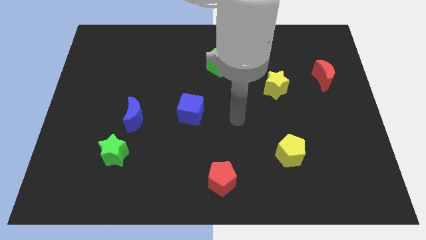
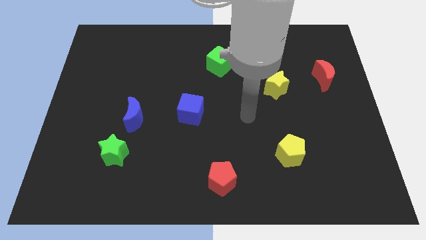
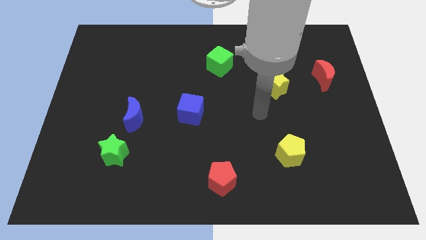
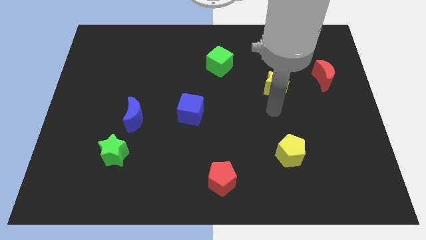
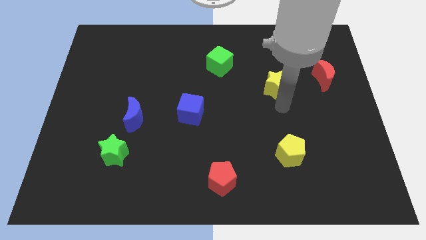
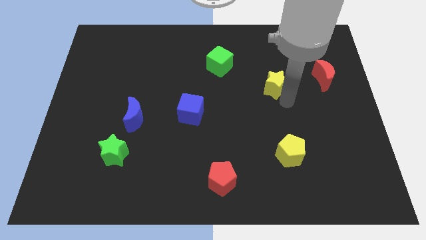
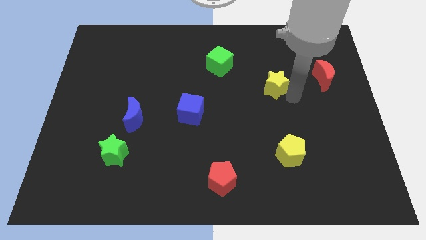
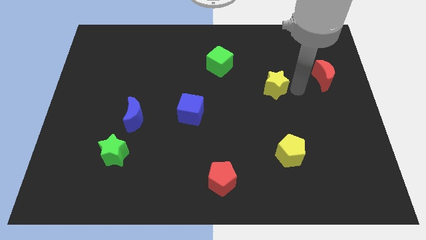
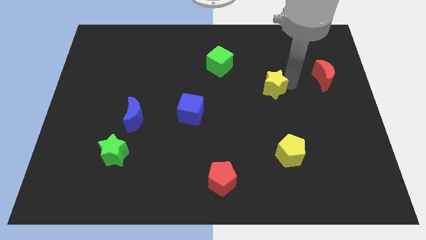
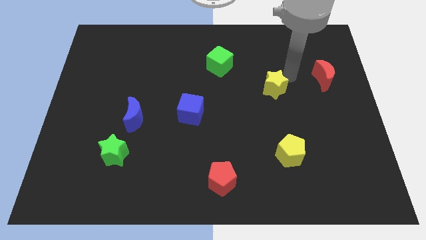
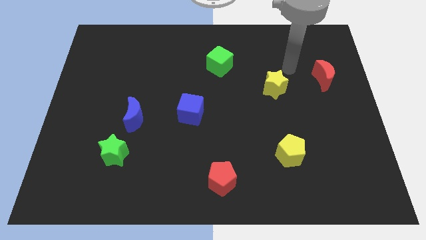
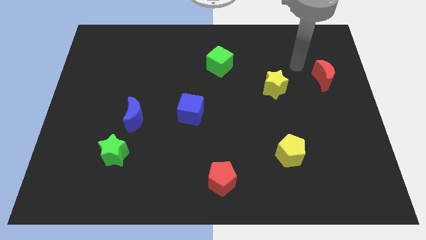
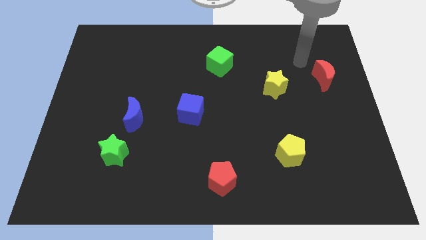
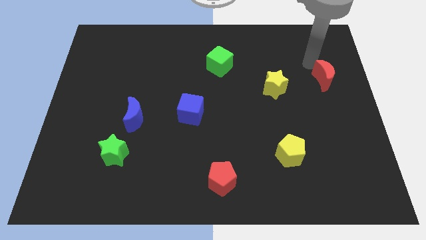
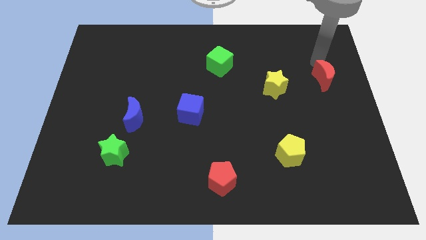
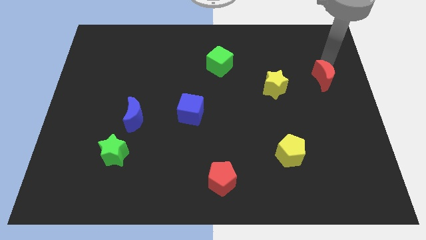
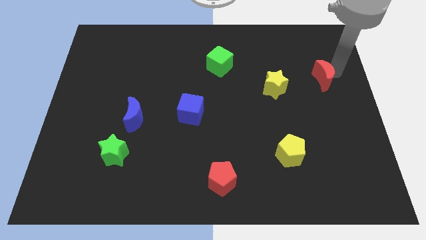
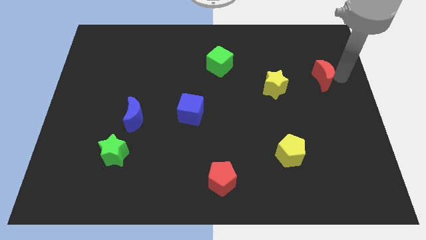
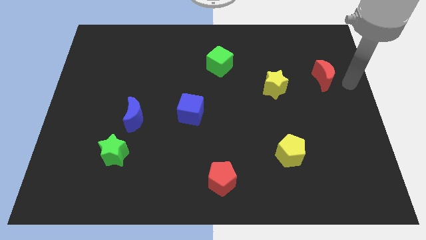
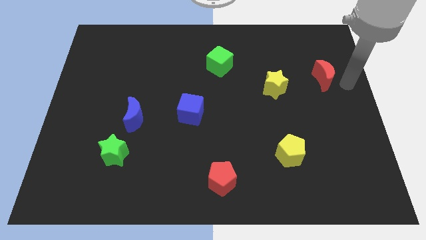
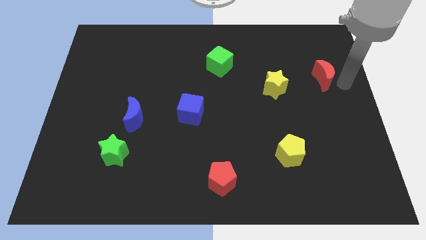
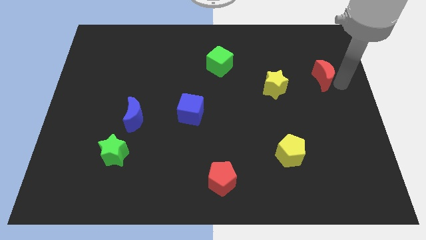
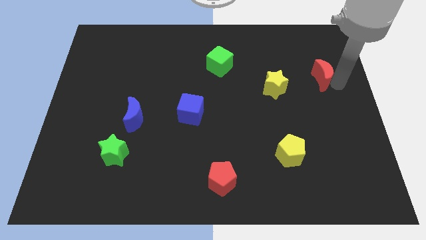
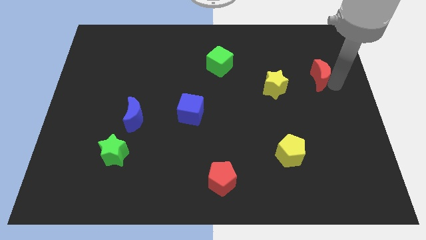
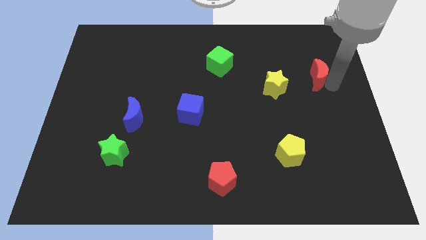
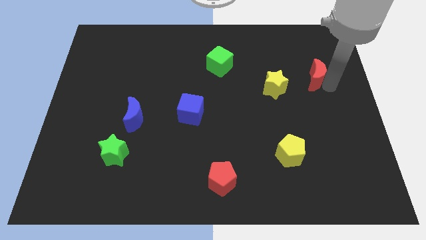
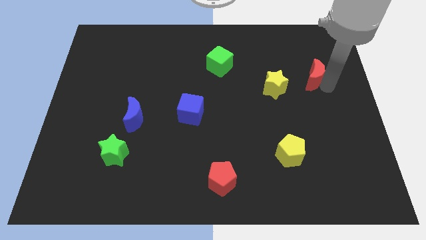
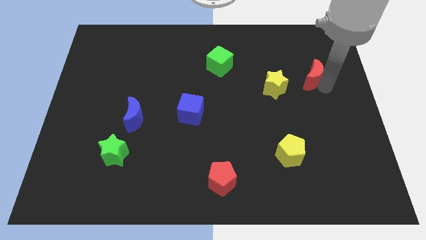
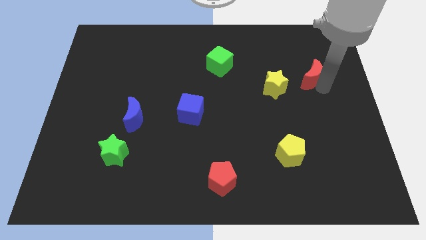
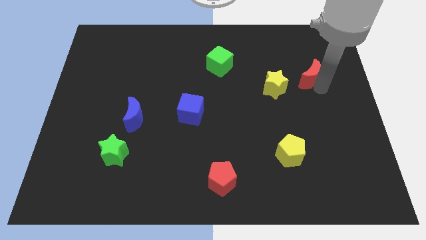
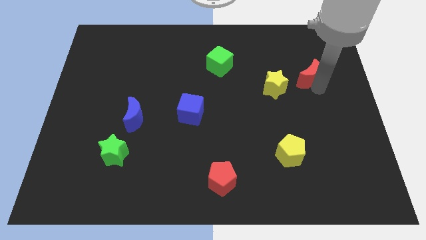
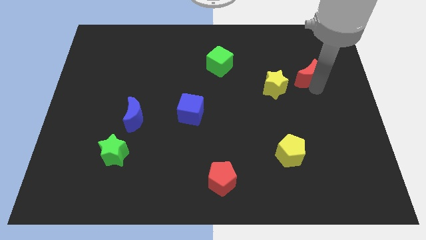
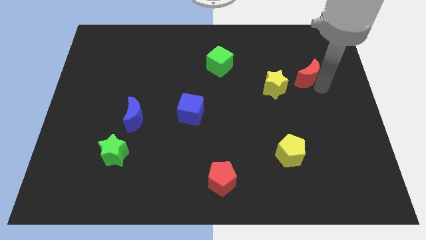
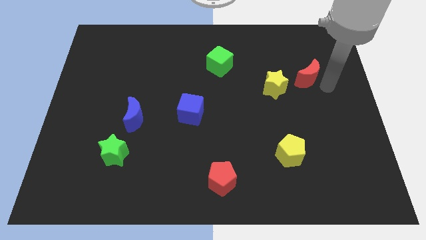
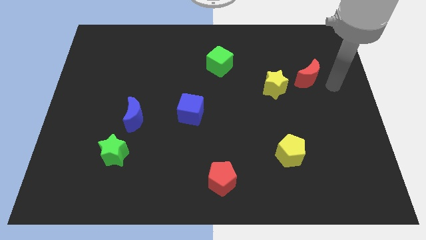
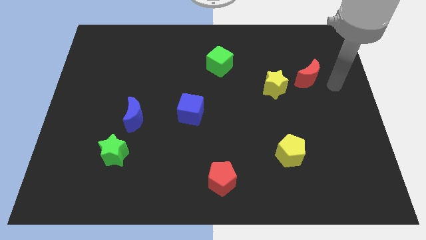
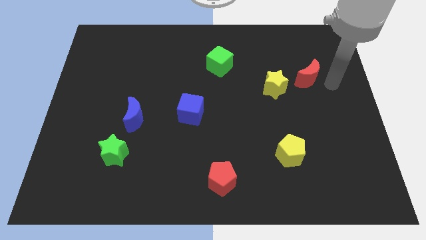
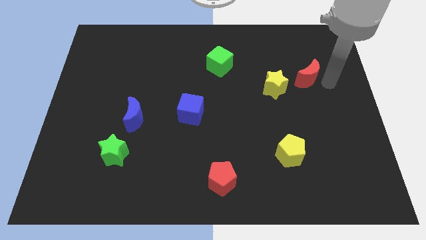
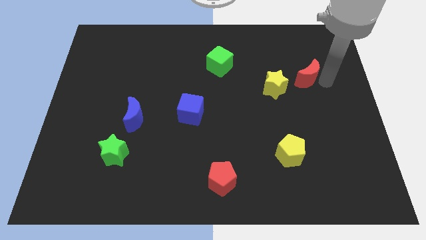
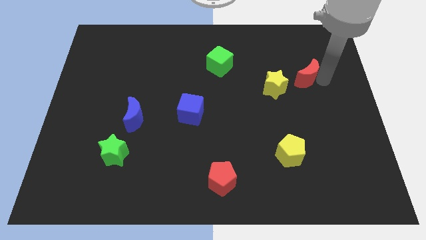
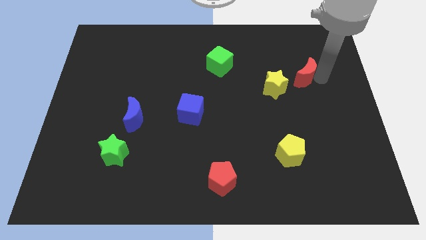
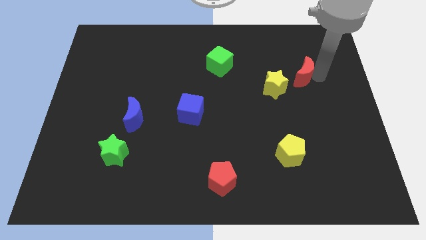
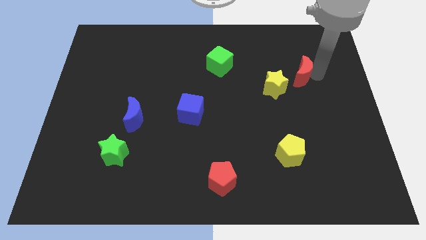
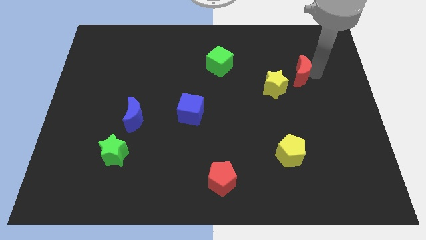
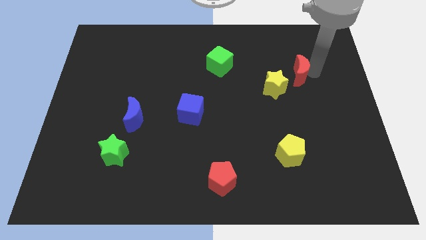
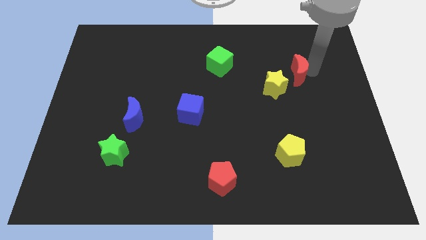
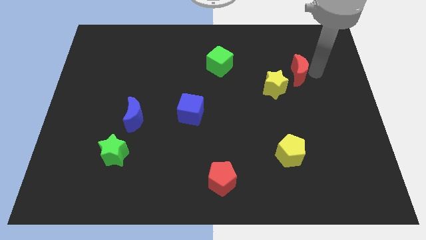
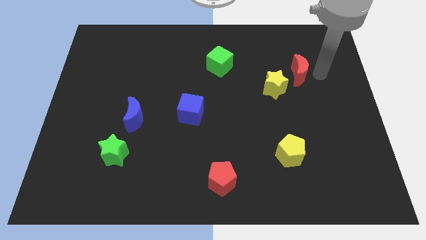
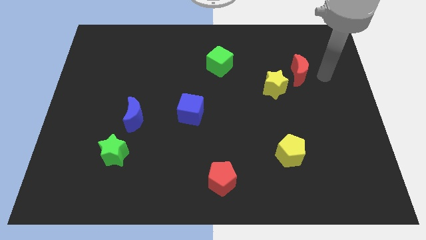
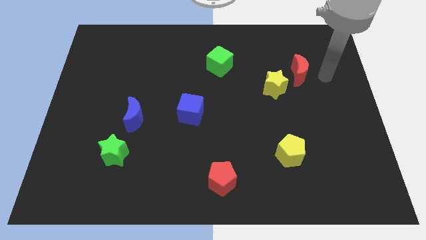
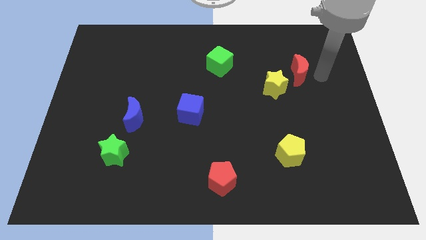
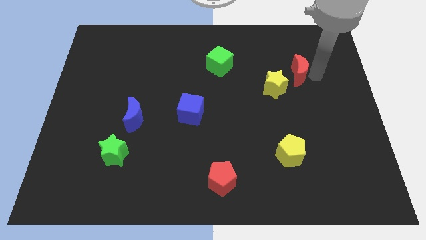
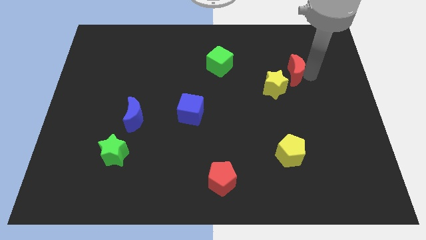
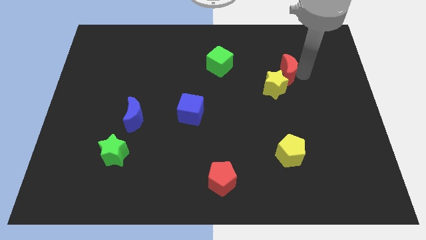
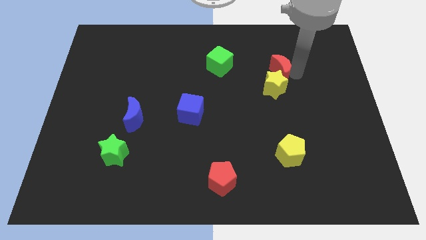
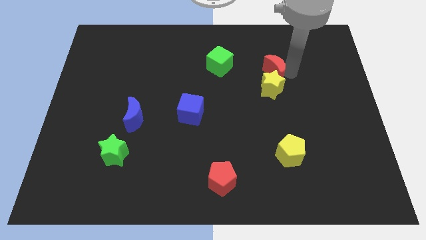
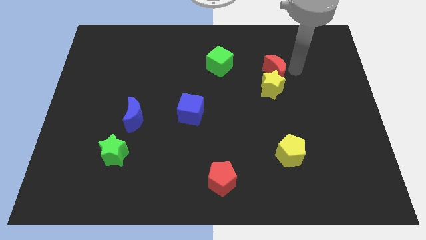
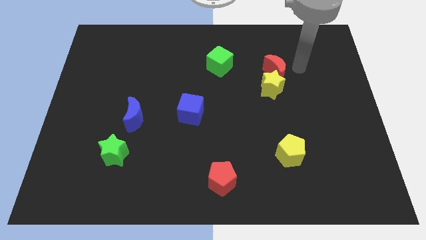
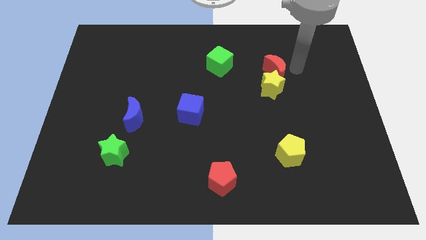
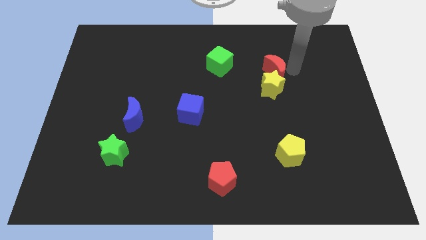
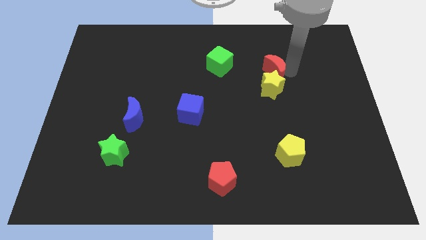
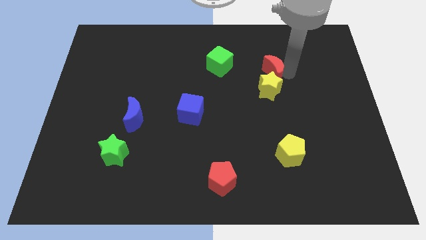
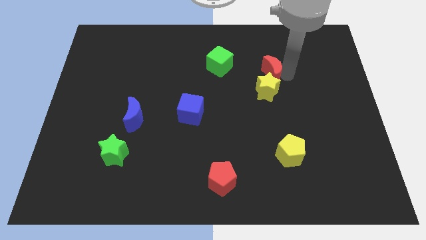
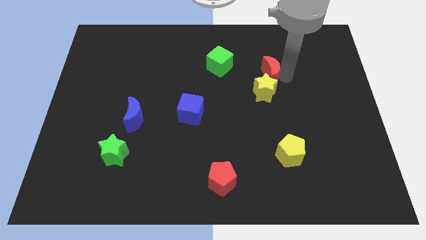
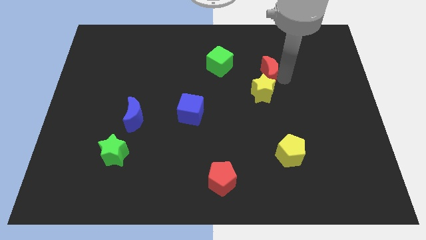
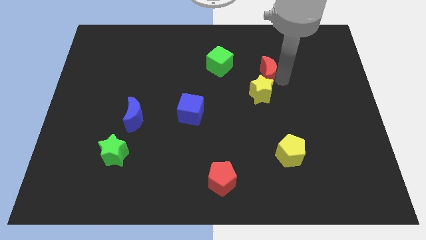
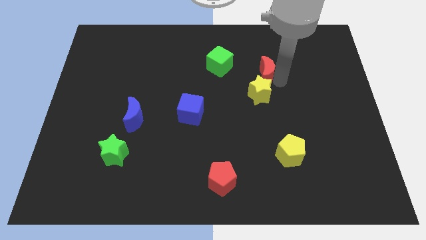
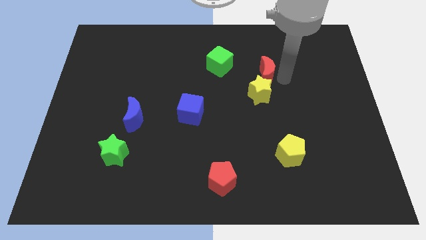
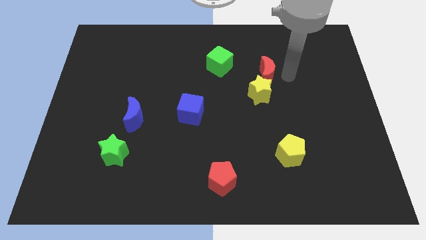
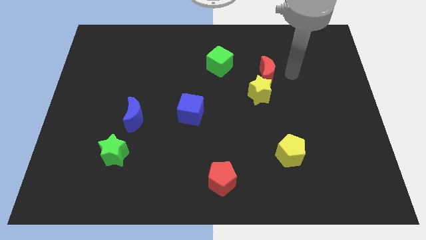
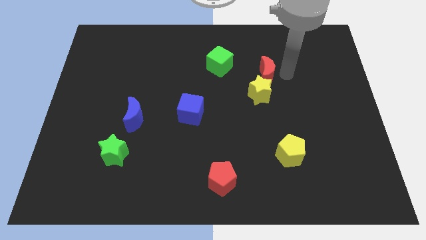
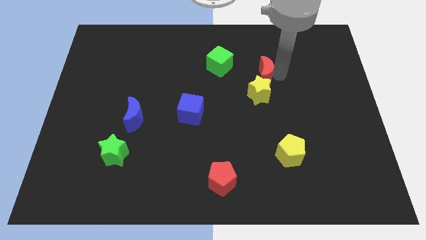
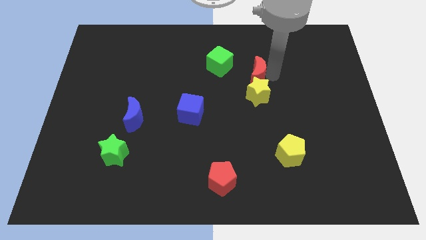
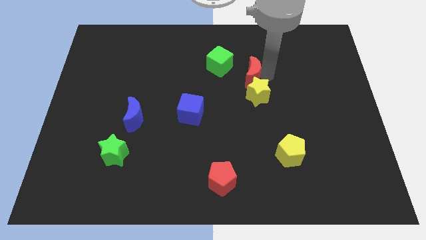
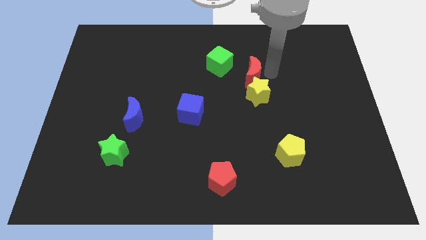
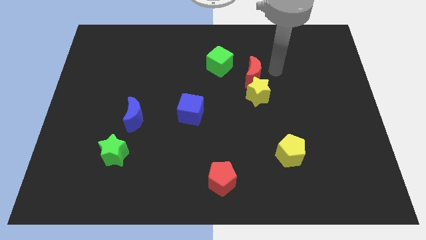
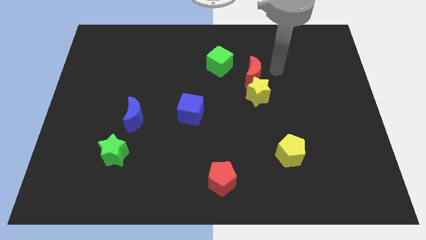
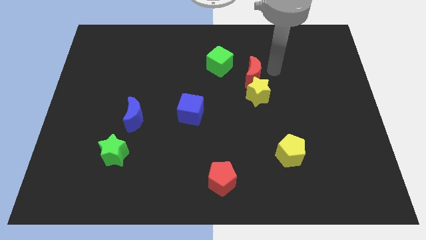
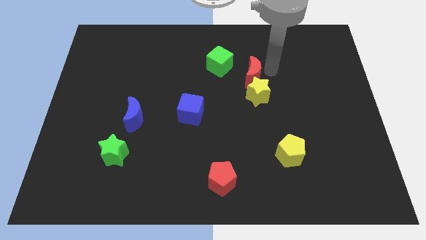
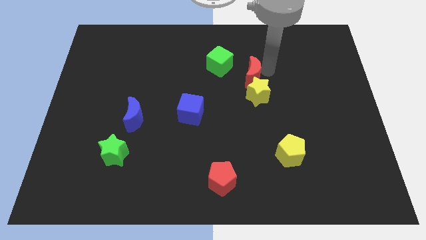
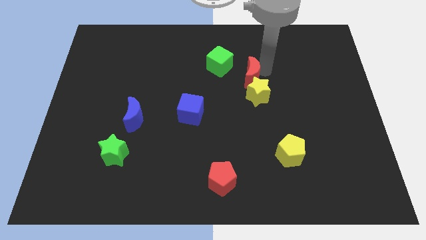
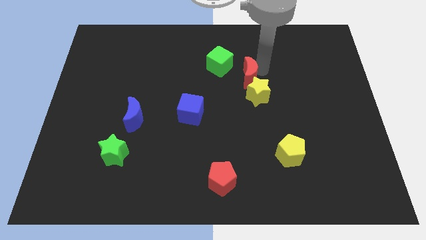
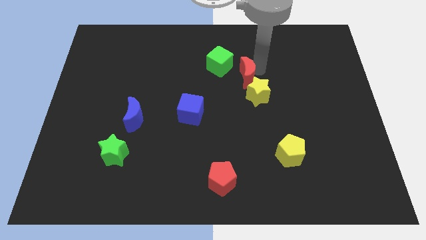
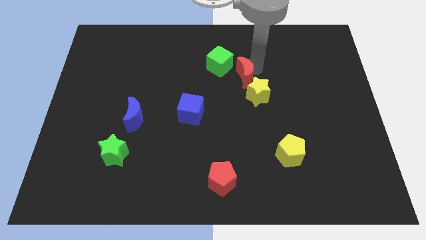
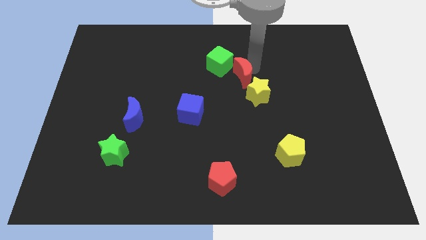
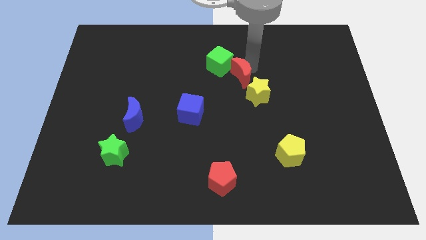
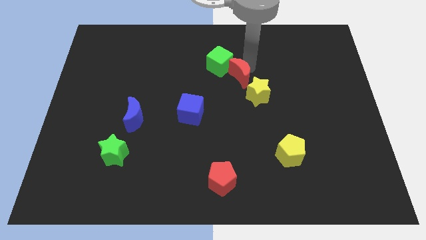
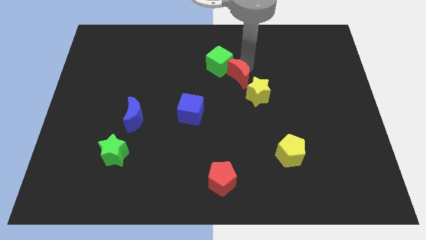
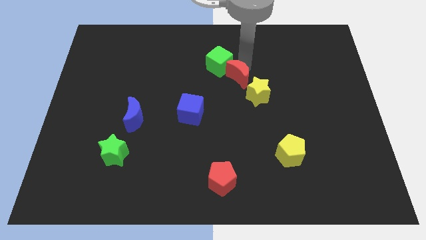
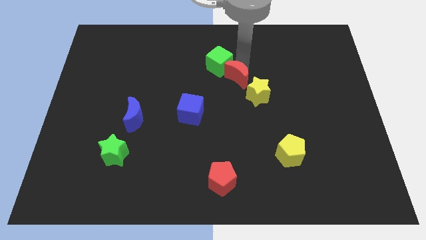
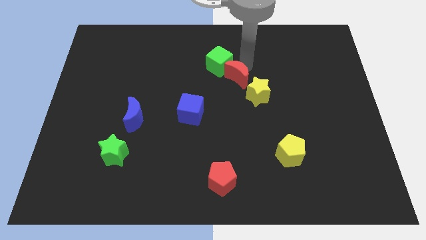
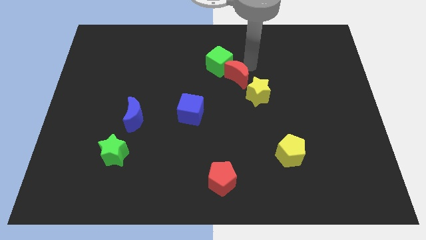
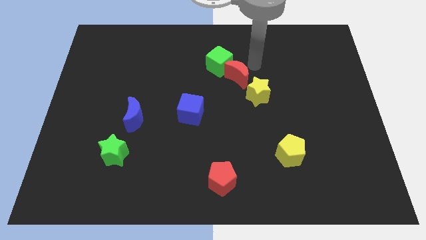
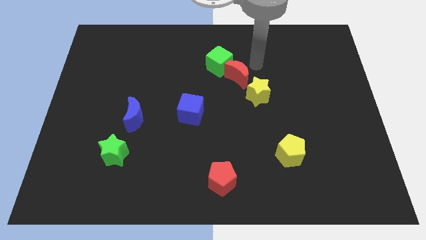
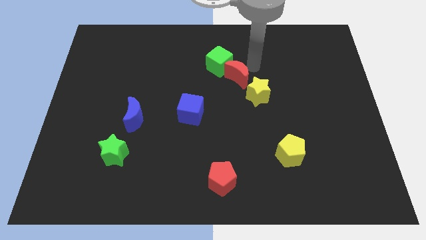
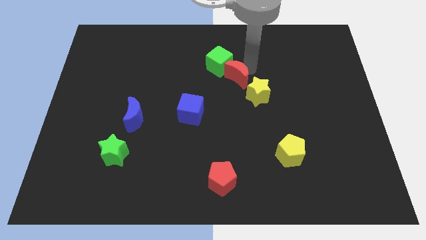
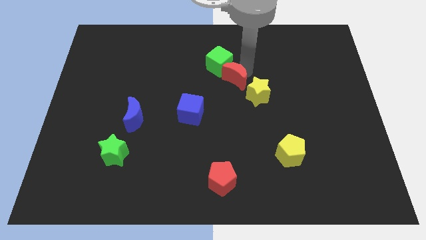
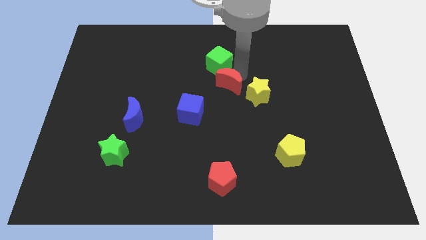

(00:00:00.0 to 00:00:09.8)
slide the red moon diagonally up and to the right of the blue cube
